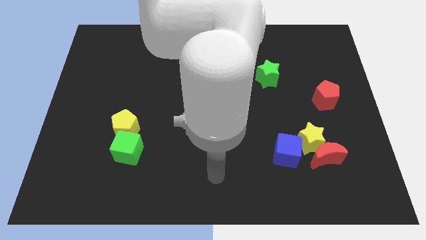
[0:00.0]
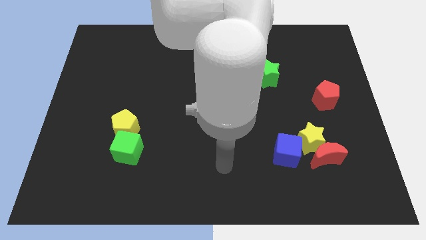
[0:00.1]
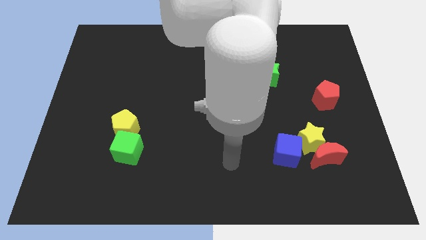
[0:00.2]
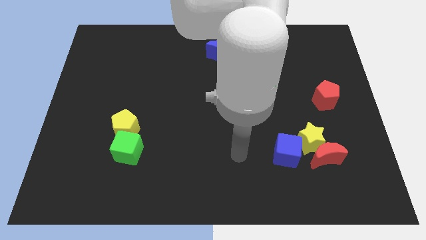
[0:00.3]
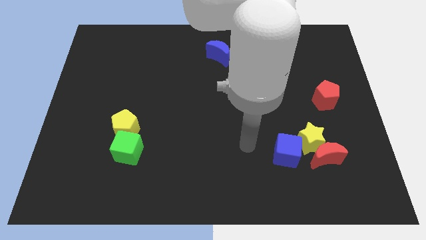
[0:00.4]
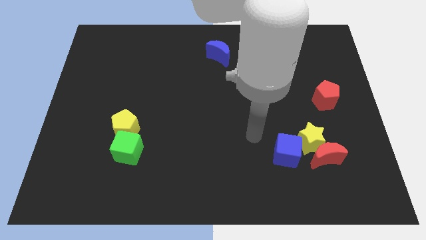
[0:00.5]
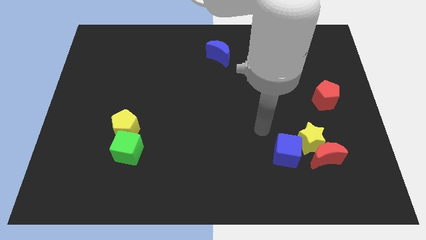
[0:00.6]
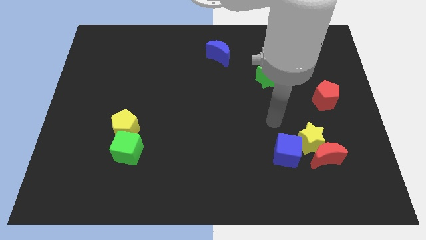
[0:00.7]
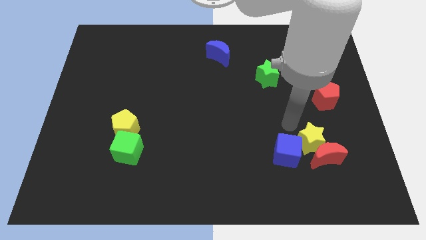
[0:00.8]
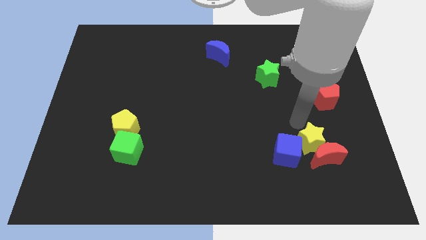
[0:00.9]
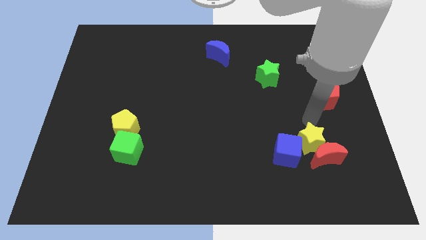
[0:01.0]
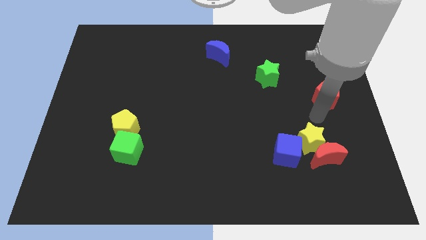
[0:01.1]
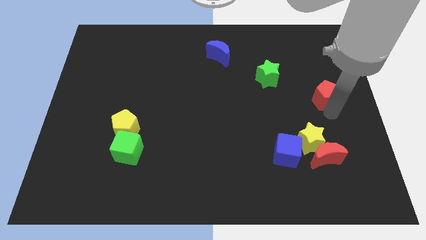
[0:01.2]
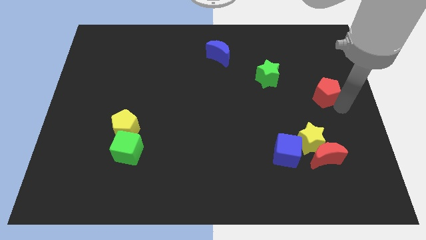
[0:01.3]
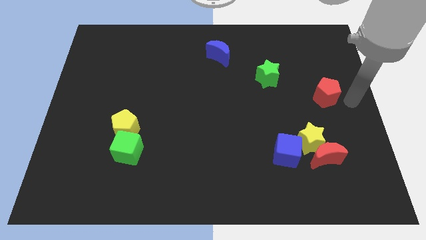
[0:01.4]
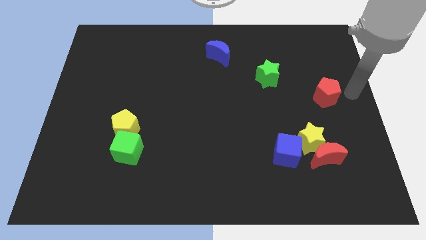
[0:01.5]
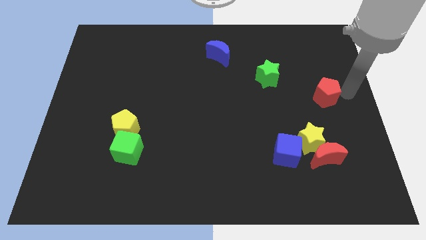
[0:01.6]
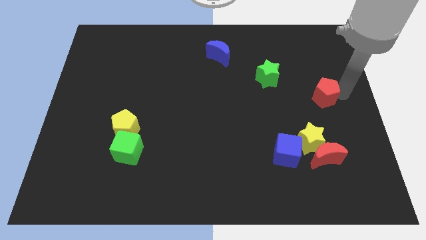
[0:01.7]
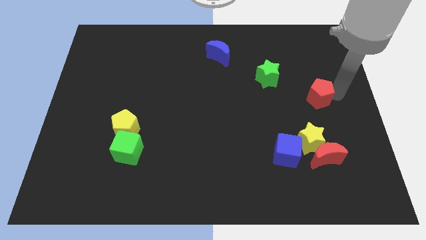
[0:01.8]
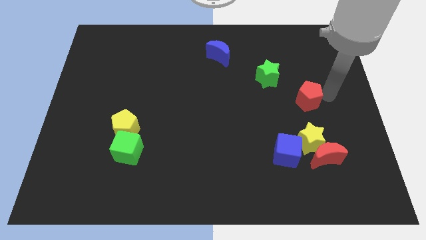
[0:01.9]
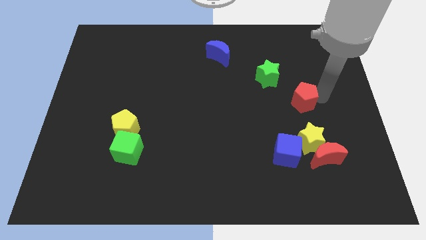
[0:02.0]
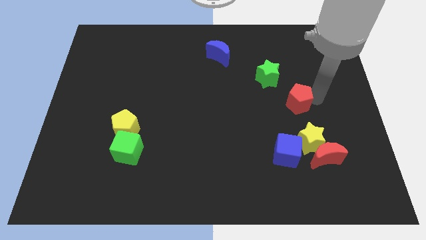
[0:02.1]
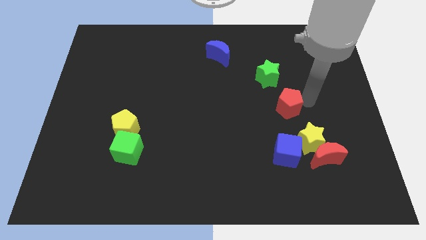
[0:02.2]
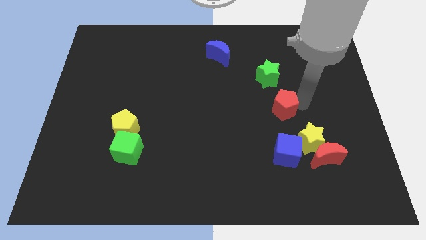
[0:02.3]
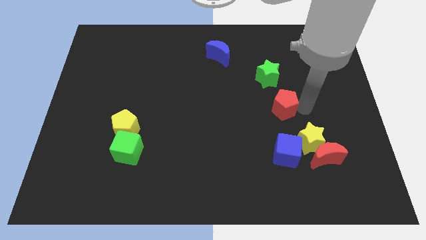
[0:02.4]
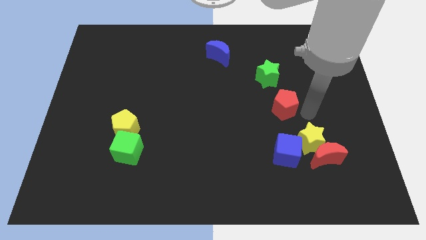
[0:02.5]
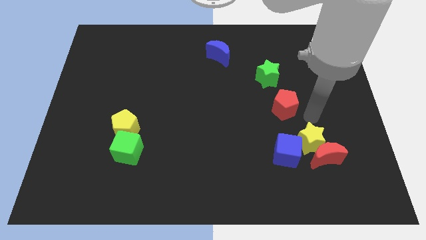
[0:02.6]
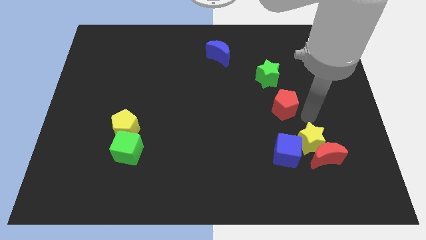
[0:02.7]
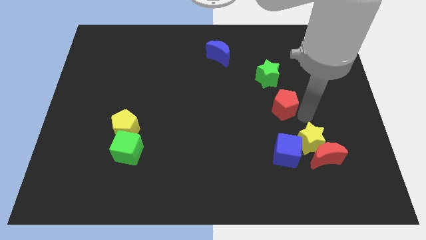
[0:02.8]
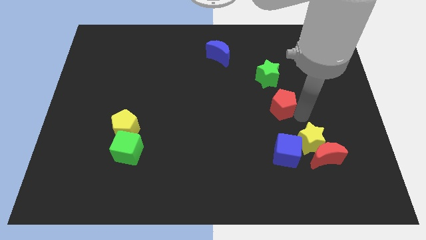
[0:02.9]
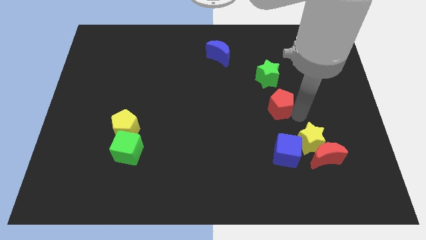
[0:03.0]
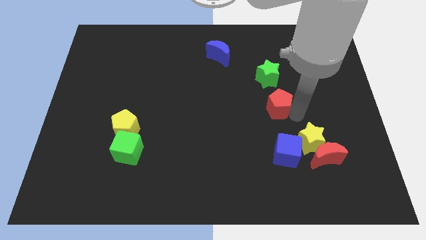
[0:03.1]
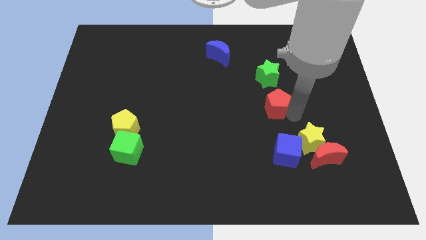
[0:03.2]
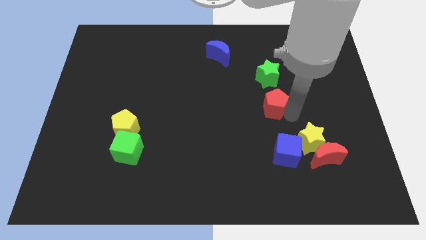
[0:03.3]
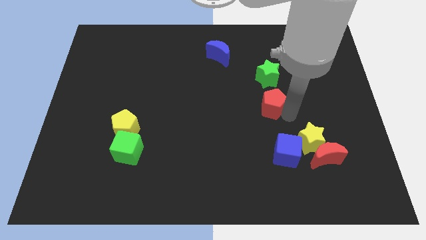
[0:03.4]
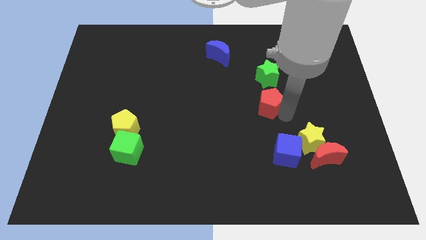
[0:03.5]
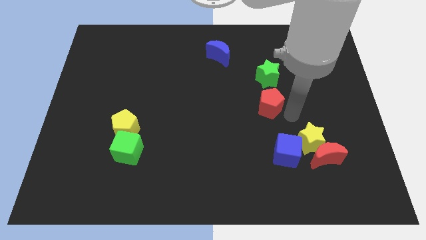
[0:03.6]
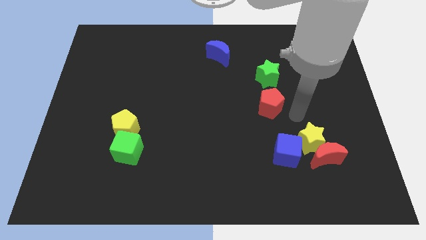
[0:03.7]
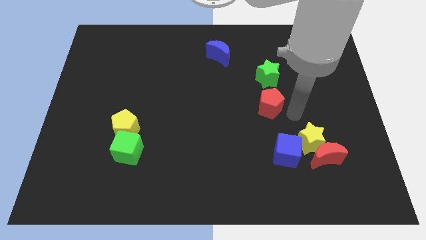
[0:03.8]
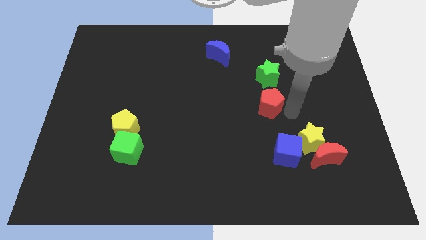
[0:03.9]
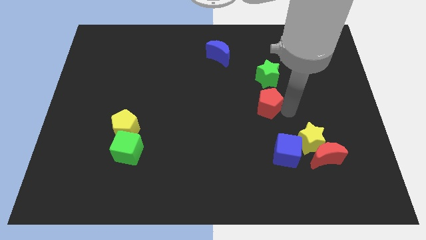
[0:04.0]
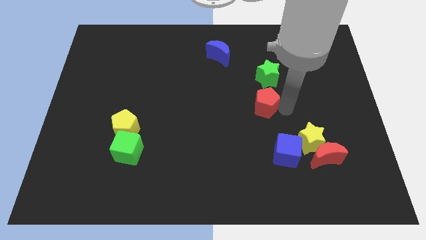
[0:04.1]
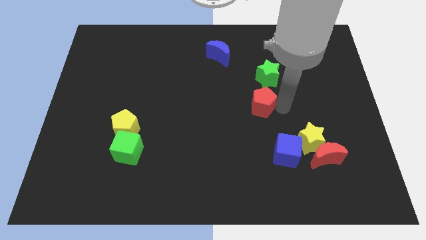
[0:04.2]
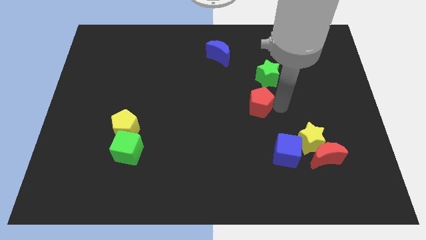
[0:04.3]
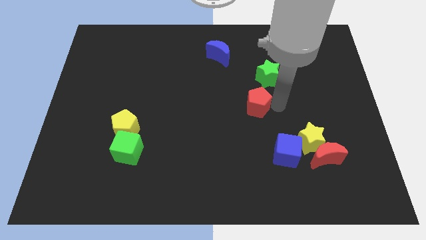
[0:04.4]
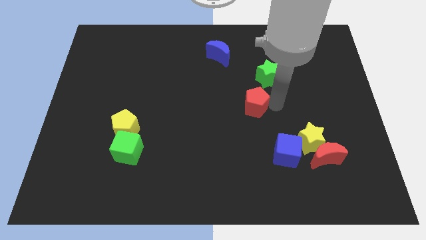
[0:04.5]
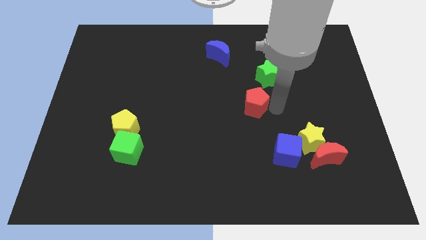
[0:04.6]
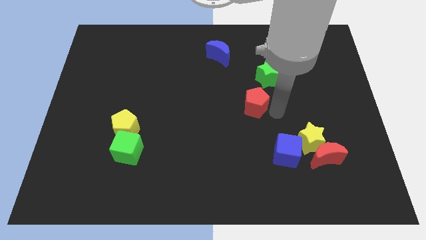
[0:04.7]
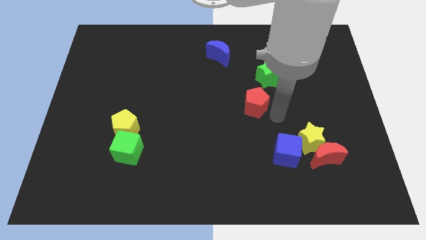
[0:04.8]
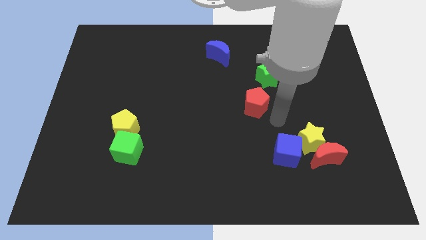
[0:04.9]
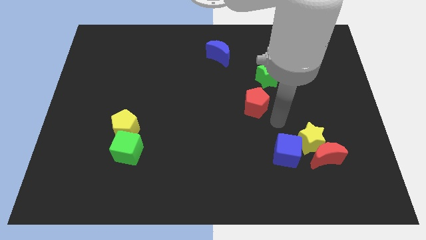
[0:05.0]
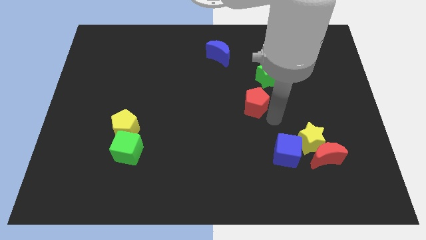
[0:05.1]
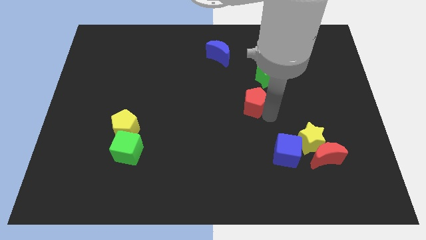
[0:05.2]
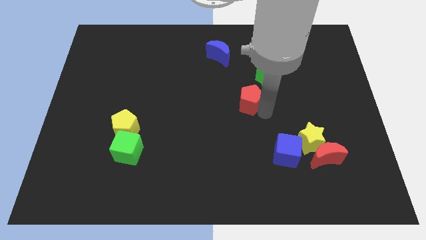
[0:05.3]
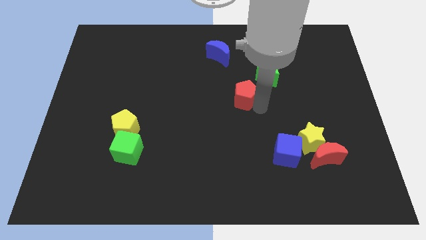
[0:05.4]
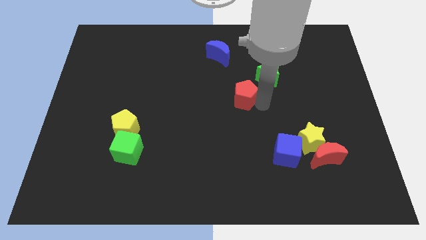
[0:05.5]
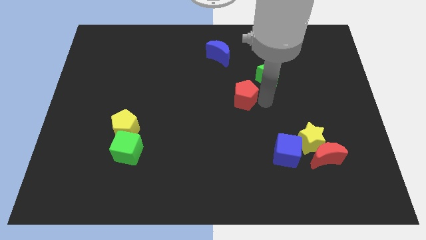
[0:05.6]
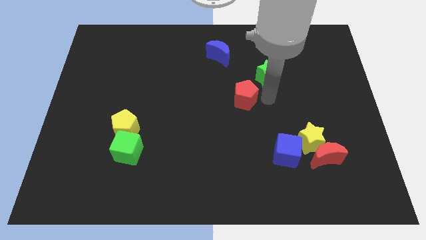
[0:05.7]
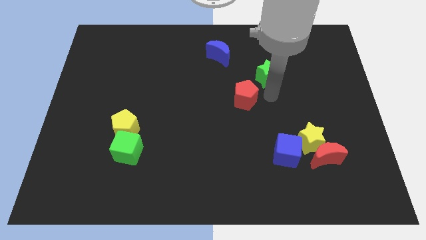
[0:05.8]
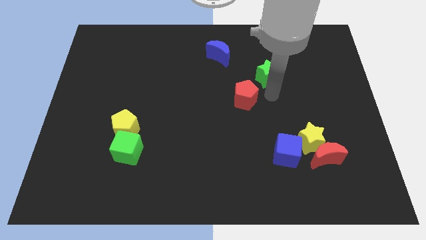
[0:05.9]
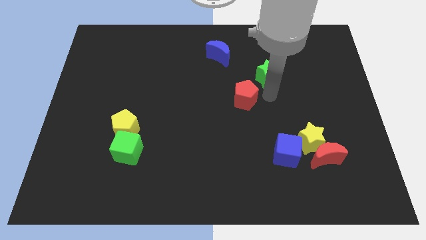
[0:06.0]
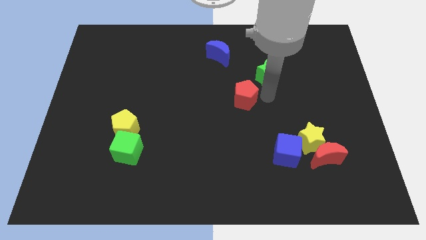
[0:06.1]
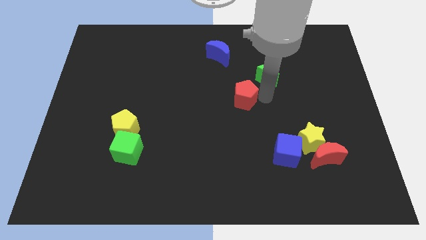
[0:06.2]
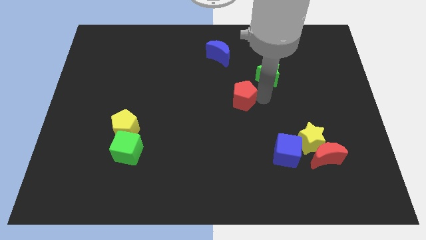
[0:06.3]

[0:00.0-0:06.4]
move the red pentagon to the left

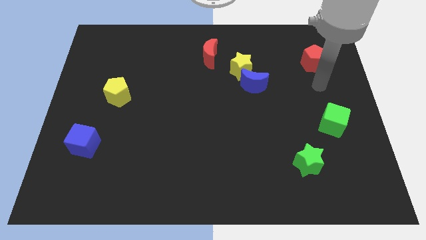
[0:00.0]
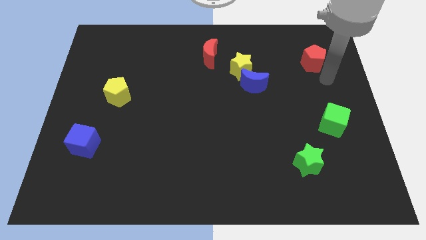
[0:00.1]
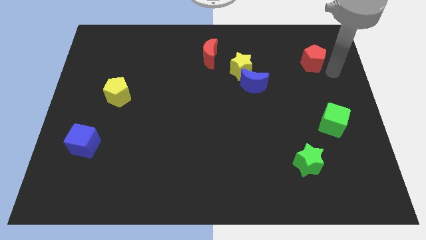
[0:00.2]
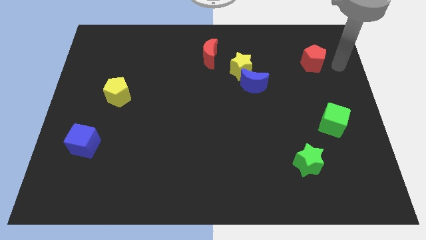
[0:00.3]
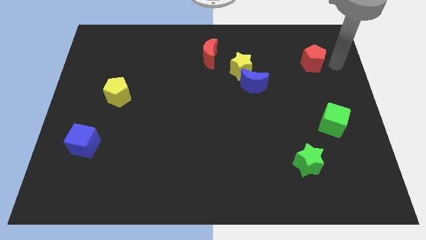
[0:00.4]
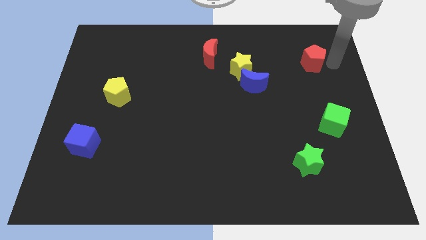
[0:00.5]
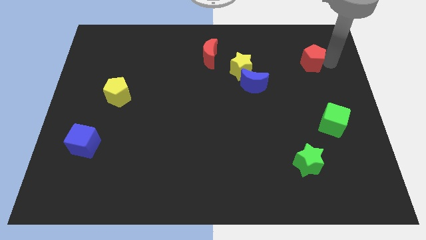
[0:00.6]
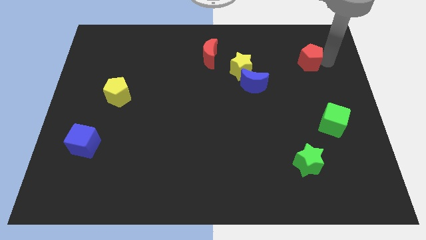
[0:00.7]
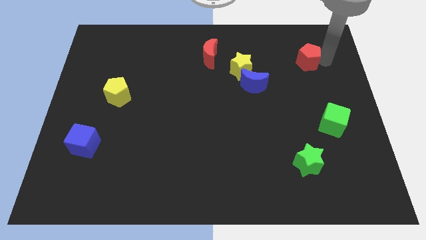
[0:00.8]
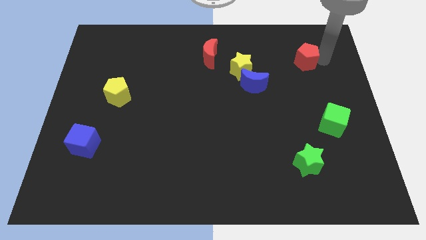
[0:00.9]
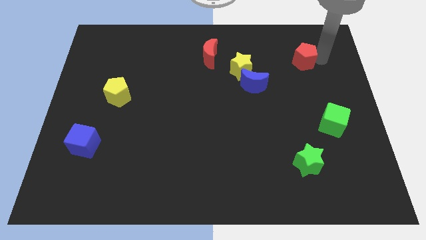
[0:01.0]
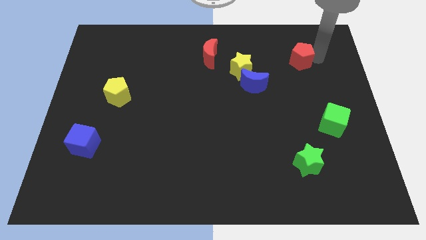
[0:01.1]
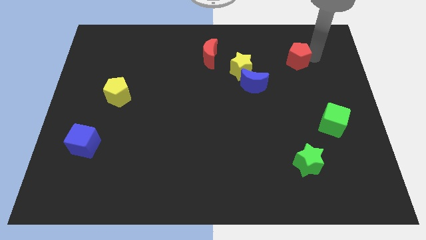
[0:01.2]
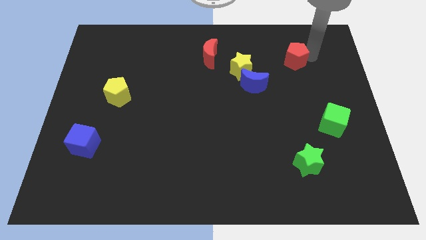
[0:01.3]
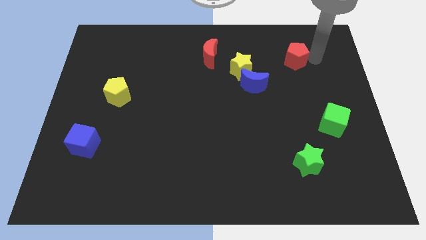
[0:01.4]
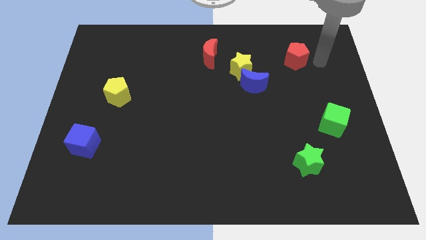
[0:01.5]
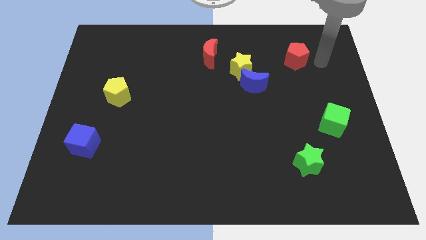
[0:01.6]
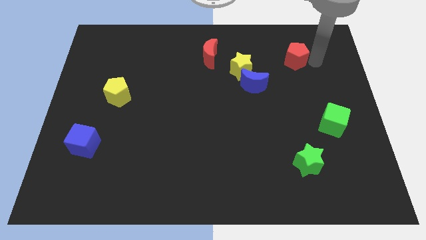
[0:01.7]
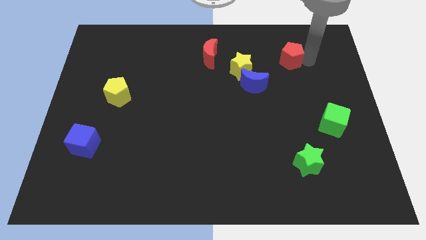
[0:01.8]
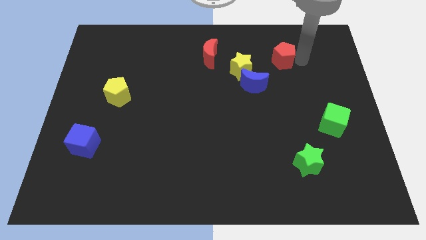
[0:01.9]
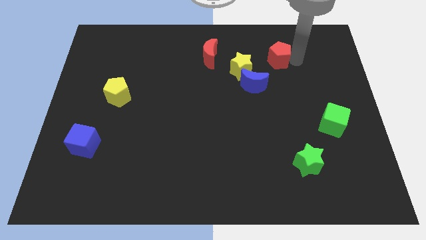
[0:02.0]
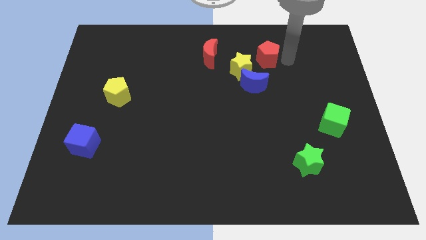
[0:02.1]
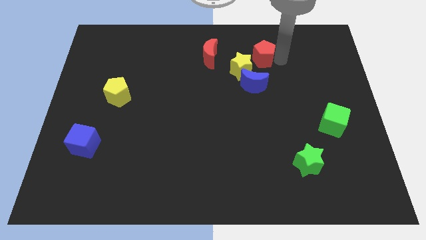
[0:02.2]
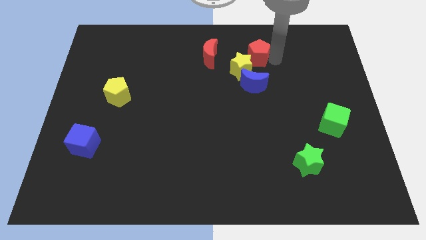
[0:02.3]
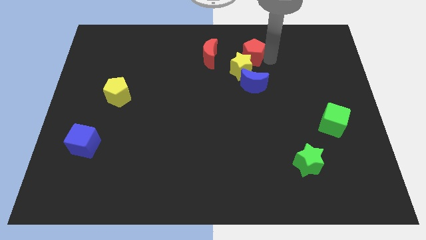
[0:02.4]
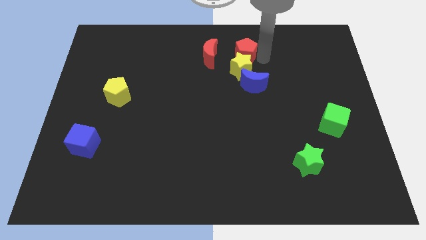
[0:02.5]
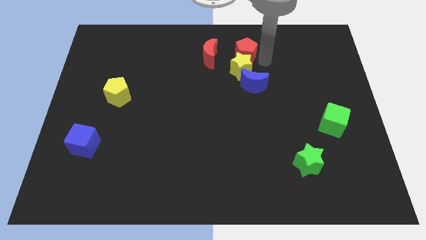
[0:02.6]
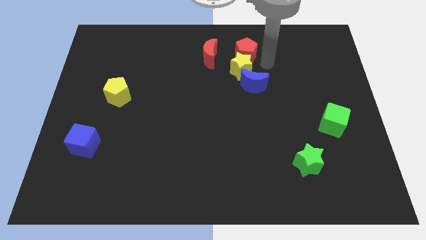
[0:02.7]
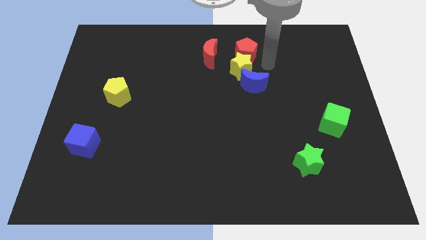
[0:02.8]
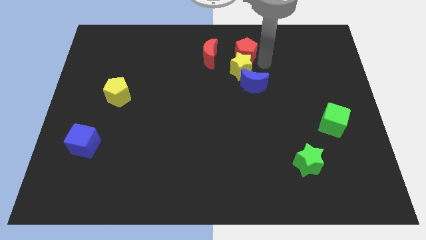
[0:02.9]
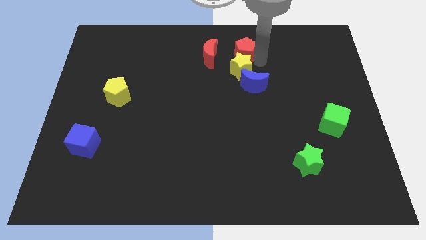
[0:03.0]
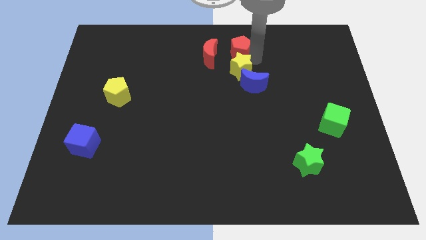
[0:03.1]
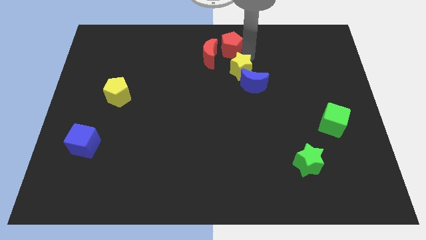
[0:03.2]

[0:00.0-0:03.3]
move the red pentagon left
